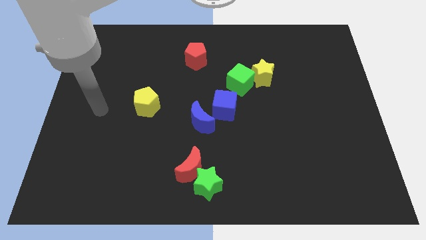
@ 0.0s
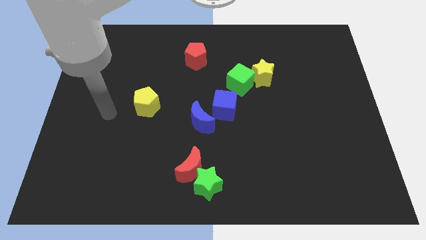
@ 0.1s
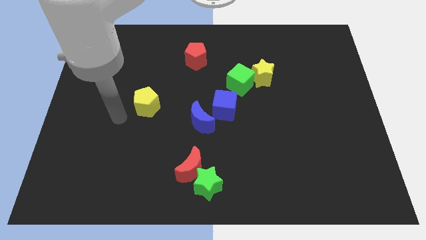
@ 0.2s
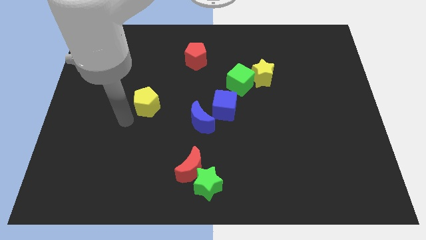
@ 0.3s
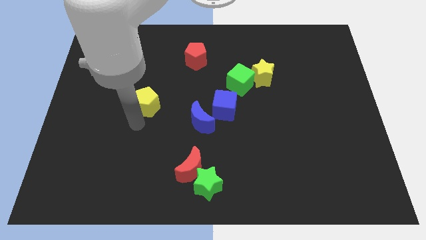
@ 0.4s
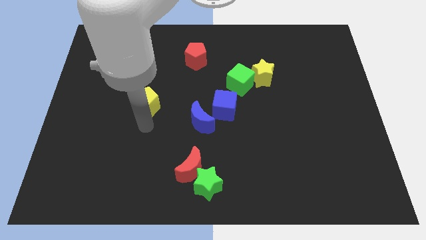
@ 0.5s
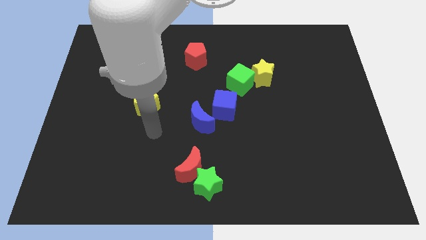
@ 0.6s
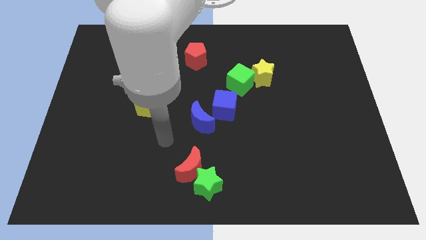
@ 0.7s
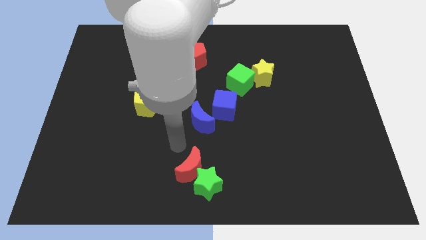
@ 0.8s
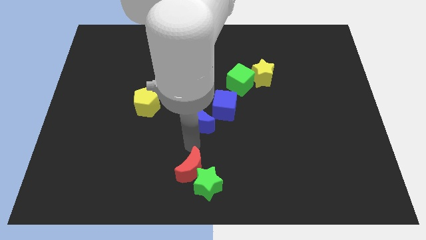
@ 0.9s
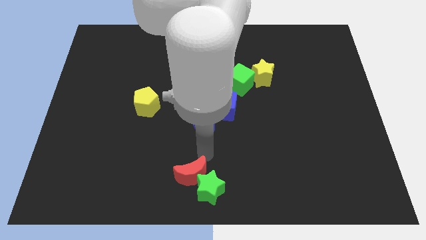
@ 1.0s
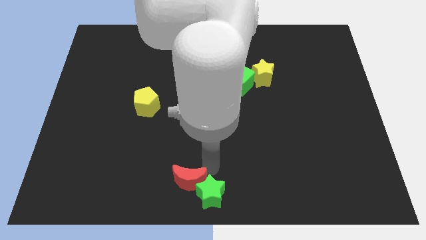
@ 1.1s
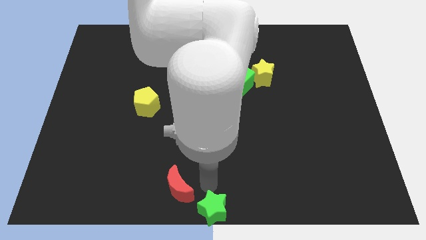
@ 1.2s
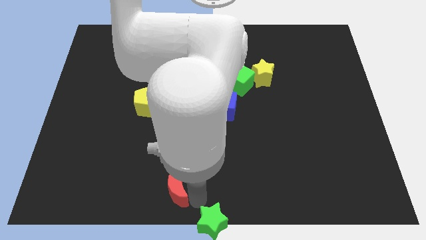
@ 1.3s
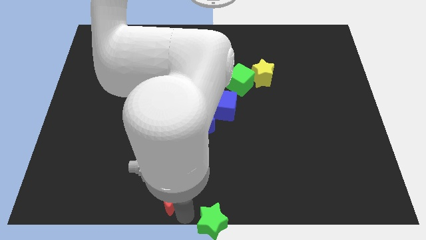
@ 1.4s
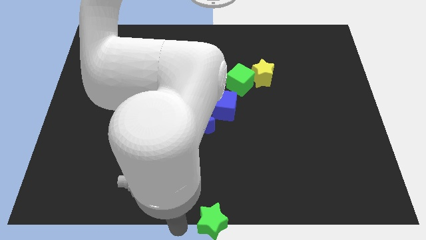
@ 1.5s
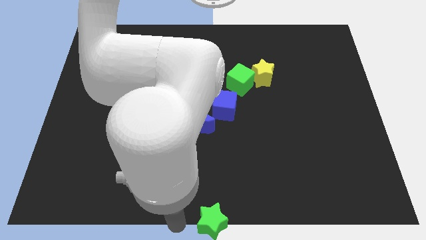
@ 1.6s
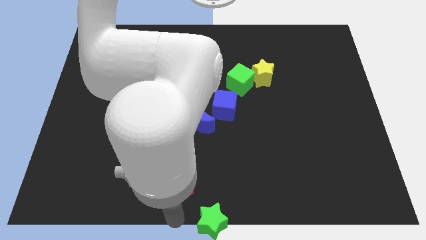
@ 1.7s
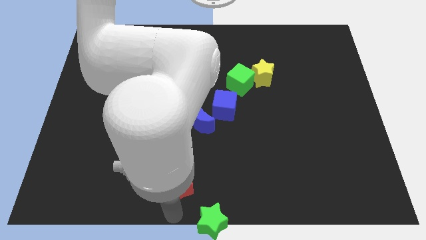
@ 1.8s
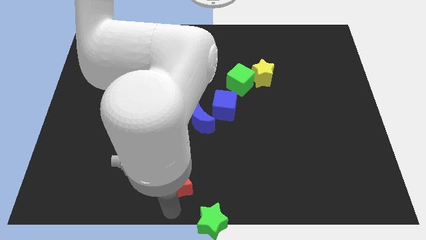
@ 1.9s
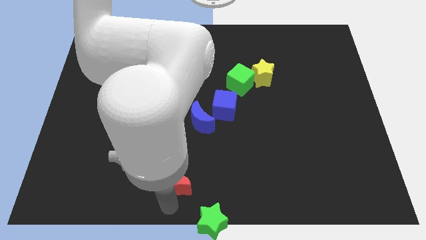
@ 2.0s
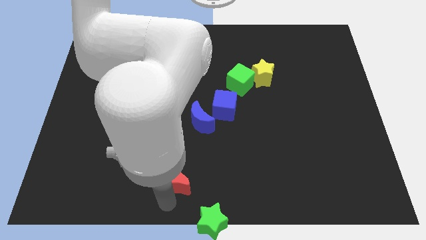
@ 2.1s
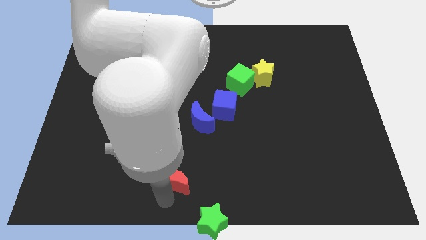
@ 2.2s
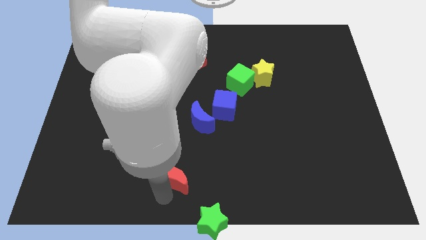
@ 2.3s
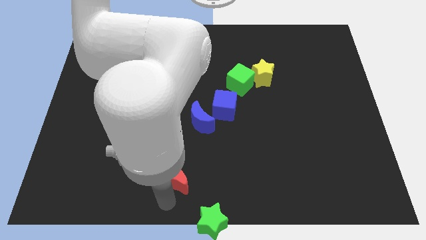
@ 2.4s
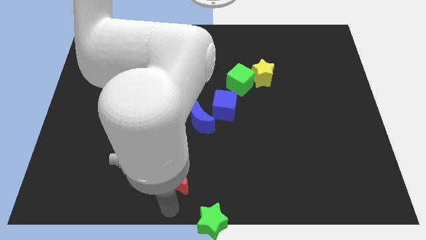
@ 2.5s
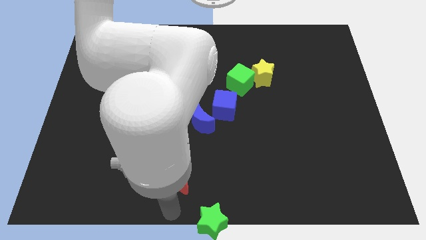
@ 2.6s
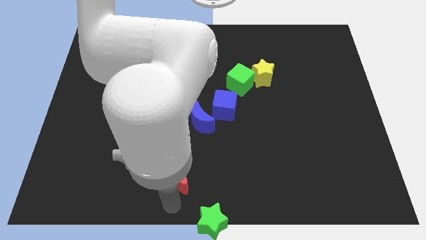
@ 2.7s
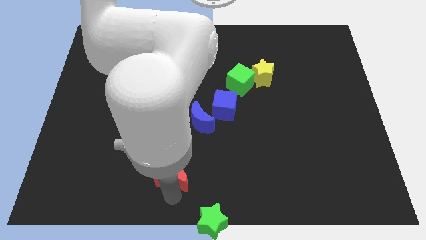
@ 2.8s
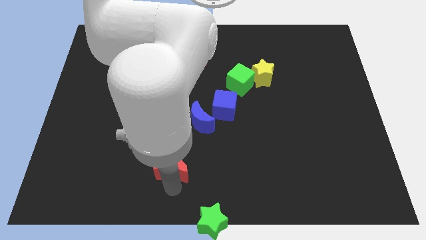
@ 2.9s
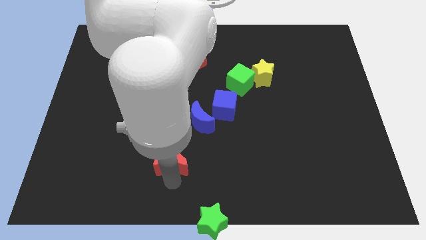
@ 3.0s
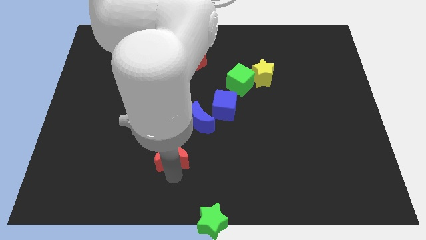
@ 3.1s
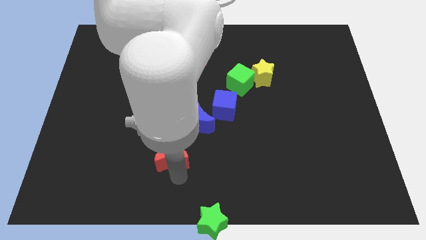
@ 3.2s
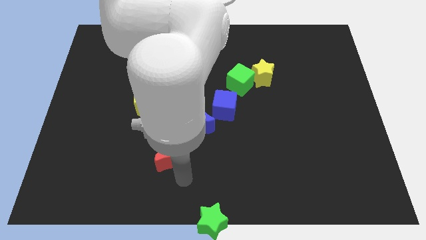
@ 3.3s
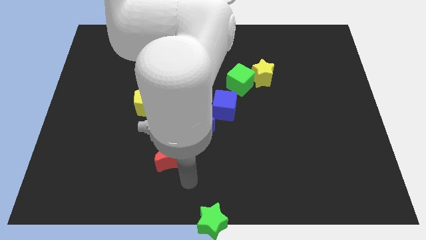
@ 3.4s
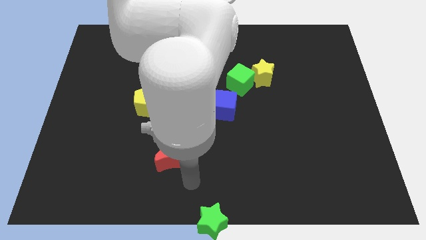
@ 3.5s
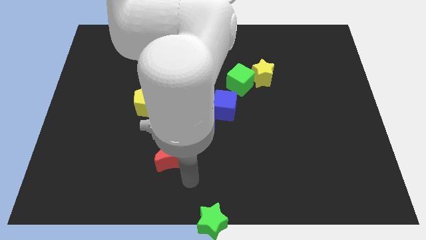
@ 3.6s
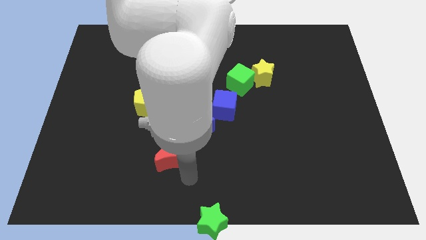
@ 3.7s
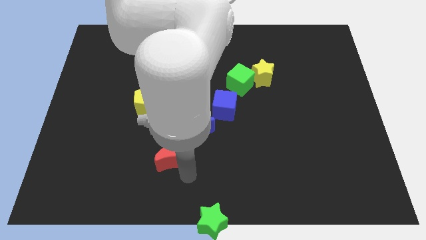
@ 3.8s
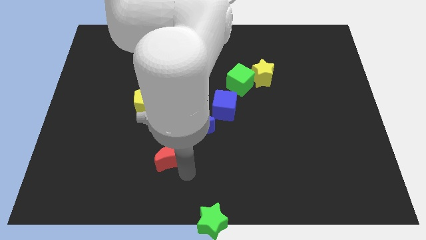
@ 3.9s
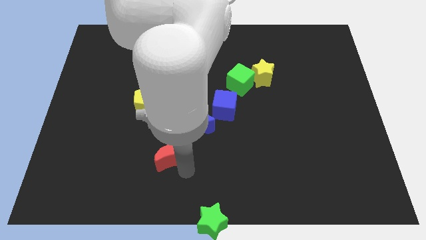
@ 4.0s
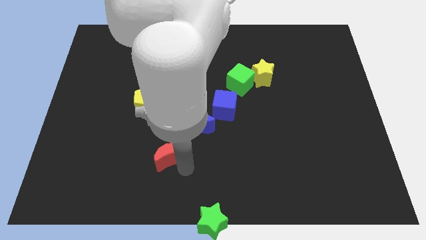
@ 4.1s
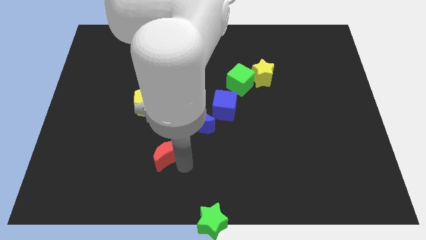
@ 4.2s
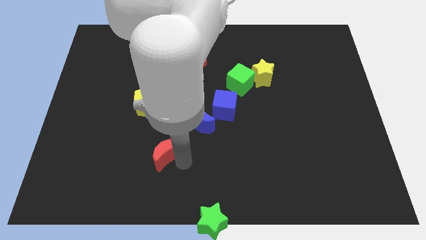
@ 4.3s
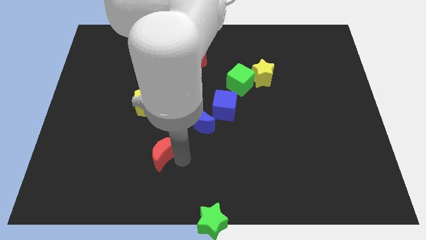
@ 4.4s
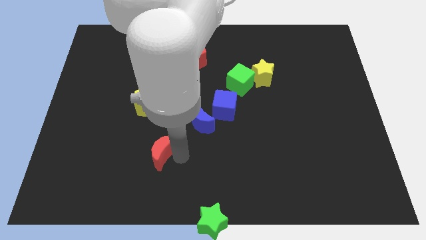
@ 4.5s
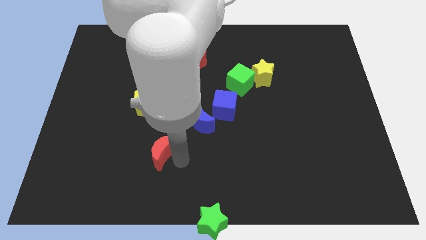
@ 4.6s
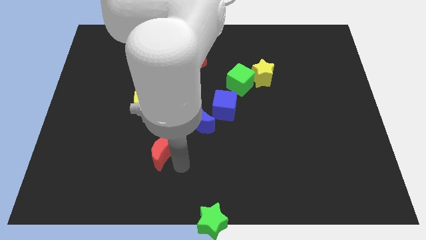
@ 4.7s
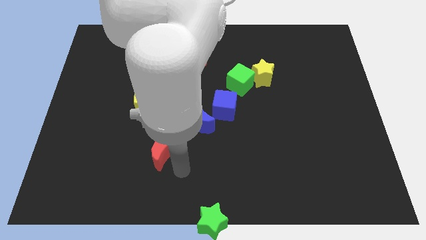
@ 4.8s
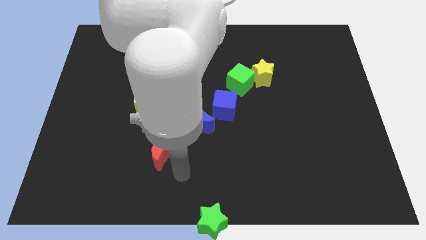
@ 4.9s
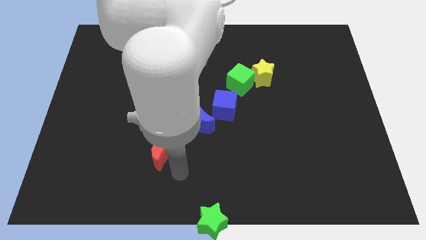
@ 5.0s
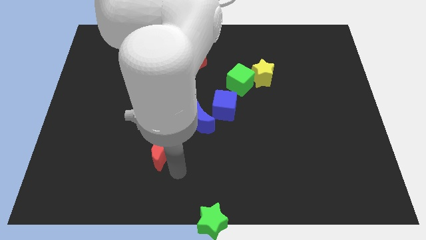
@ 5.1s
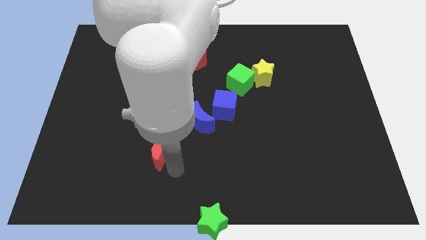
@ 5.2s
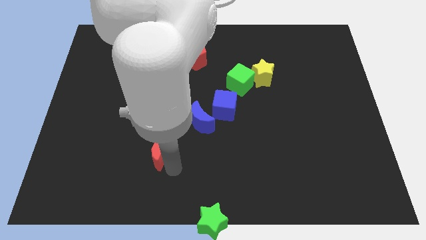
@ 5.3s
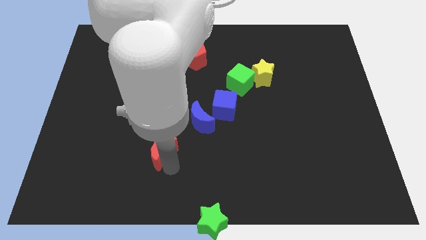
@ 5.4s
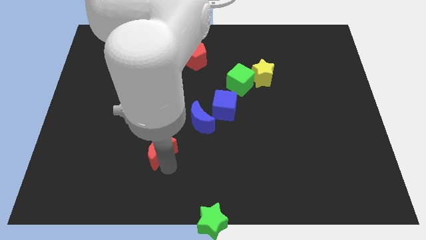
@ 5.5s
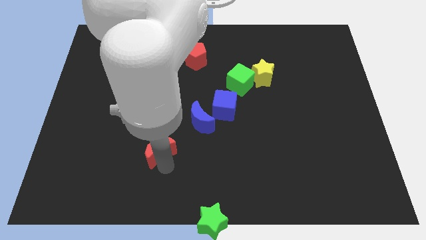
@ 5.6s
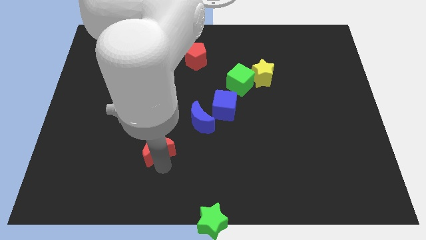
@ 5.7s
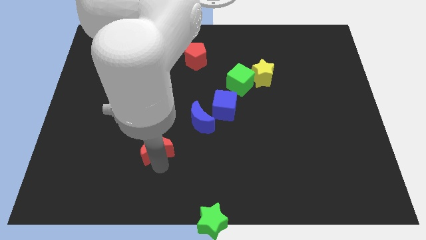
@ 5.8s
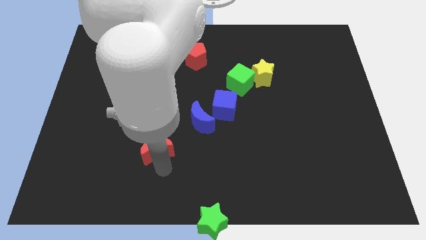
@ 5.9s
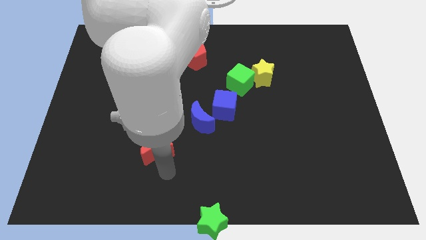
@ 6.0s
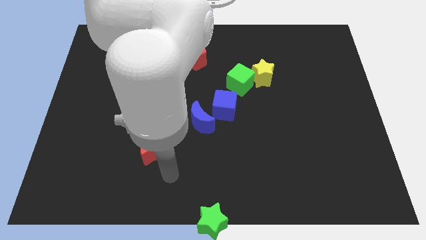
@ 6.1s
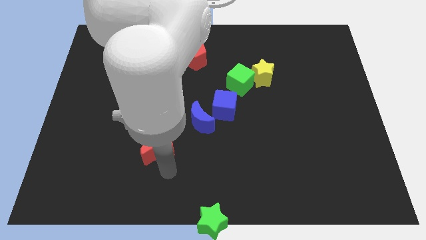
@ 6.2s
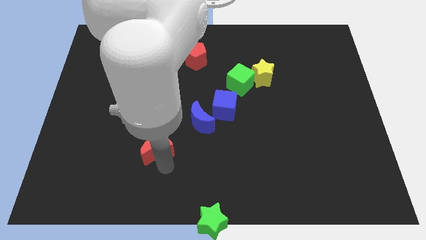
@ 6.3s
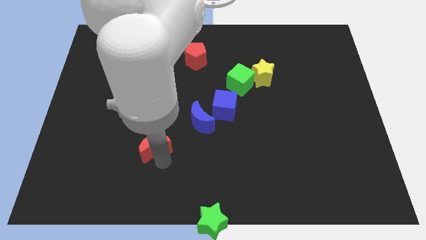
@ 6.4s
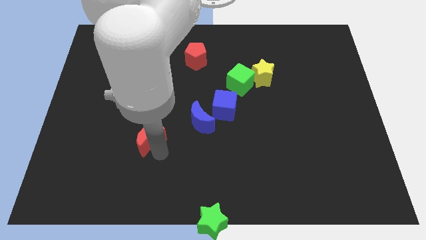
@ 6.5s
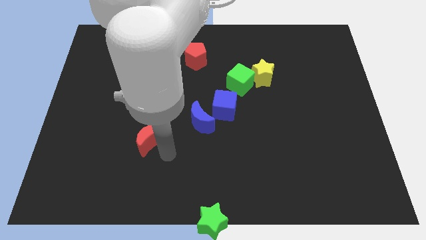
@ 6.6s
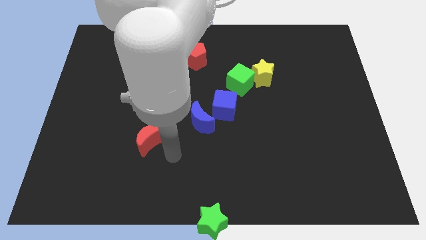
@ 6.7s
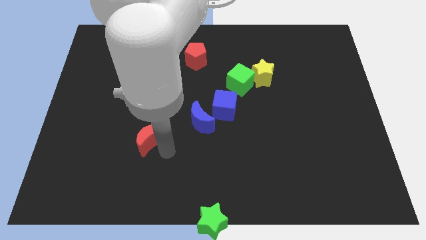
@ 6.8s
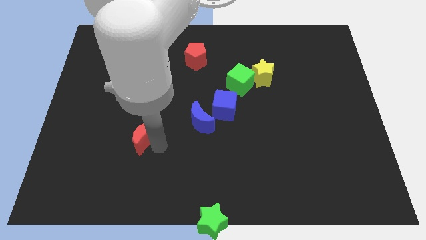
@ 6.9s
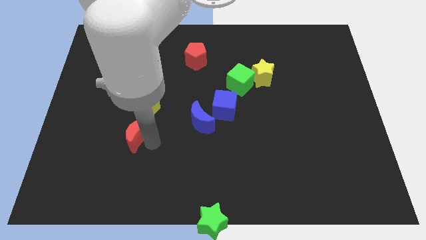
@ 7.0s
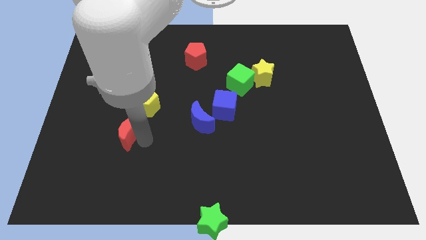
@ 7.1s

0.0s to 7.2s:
move the red moon to the bottom left of the yellow pentagon
